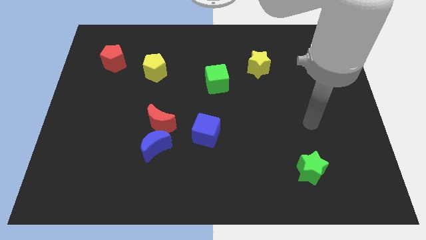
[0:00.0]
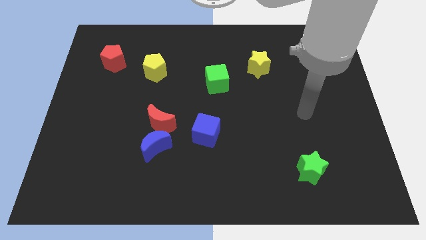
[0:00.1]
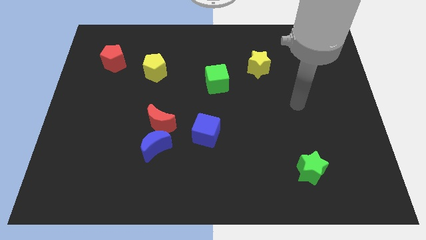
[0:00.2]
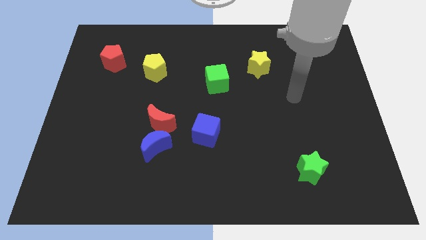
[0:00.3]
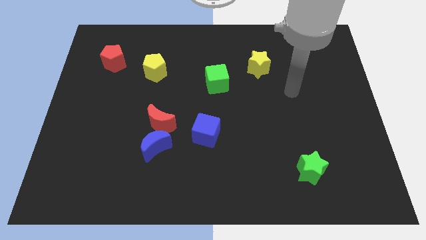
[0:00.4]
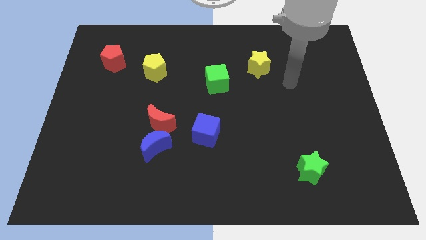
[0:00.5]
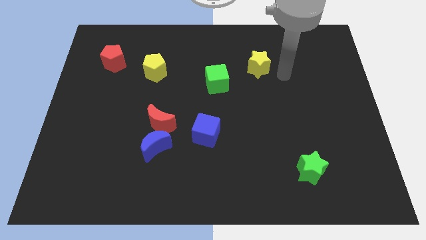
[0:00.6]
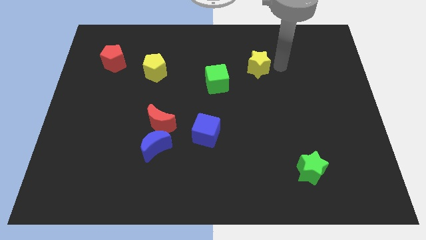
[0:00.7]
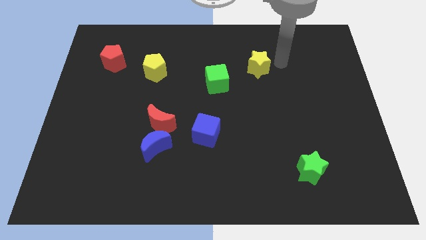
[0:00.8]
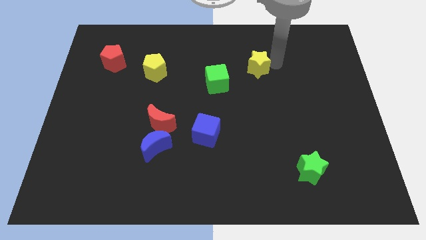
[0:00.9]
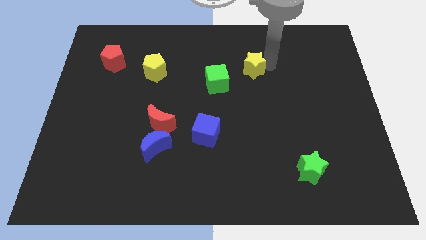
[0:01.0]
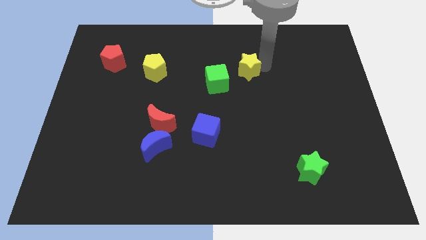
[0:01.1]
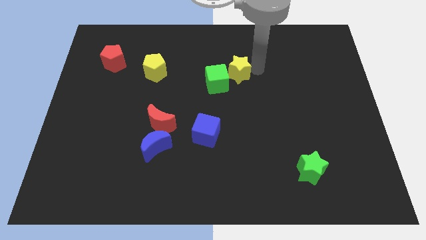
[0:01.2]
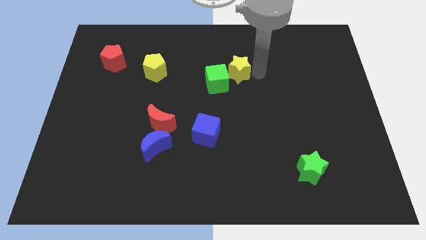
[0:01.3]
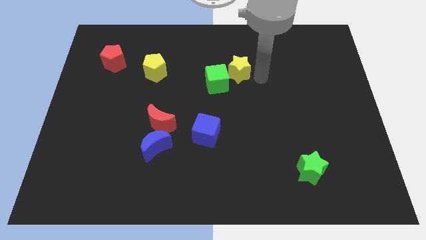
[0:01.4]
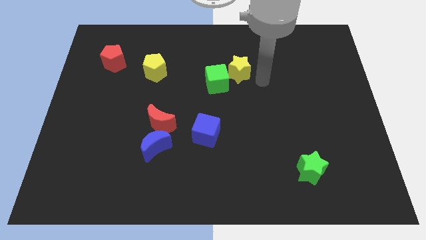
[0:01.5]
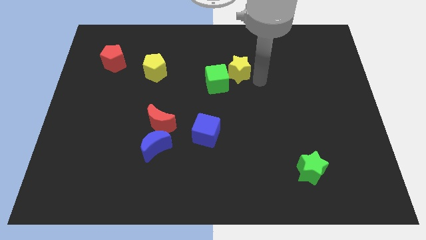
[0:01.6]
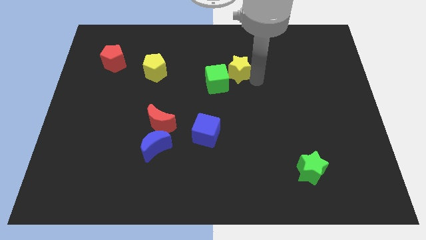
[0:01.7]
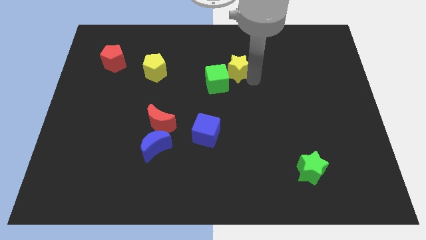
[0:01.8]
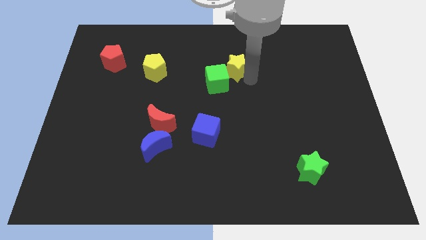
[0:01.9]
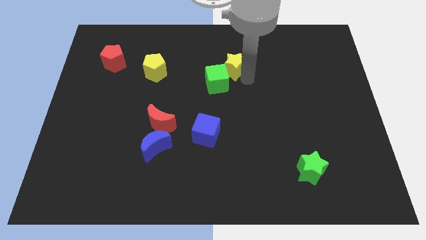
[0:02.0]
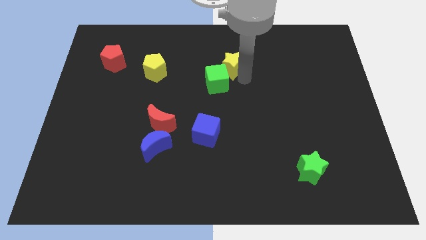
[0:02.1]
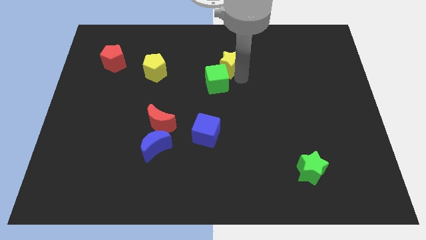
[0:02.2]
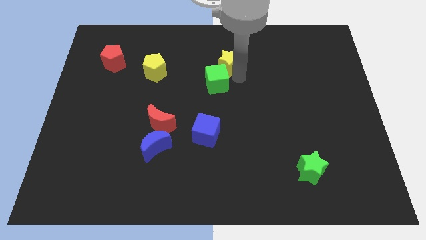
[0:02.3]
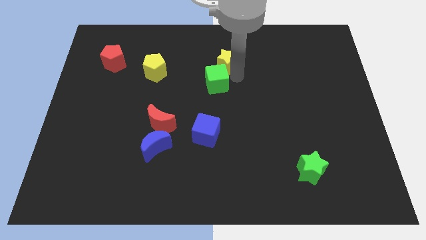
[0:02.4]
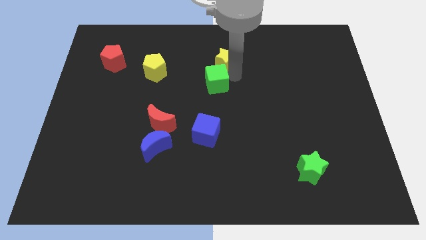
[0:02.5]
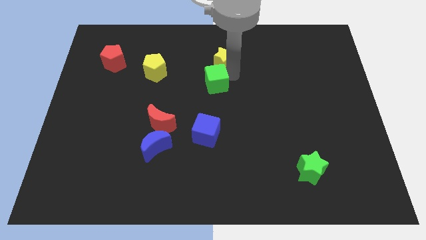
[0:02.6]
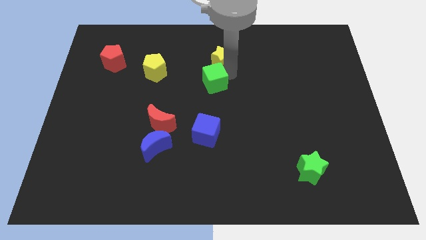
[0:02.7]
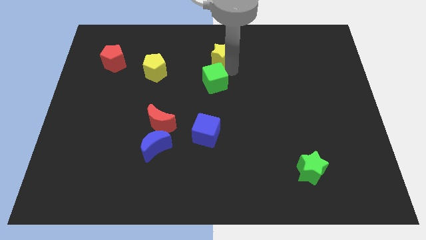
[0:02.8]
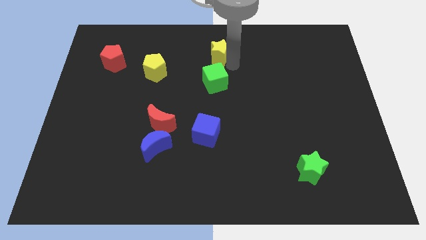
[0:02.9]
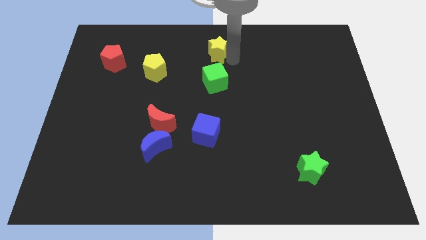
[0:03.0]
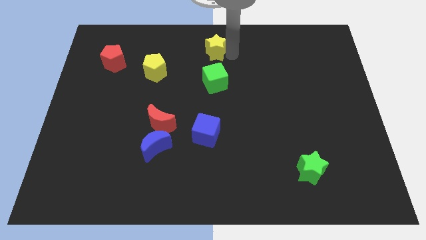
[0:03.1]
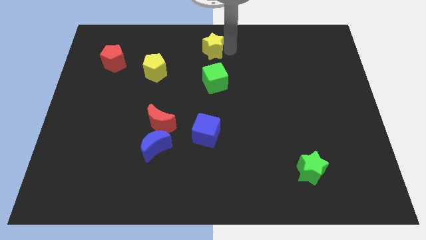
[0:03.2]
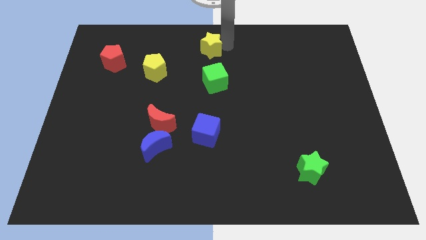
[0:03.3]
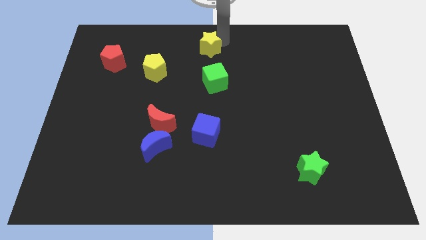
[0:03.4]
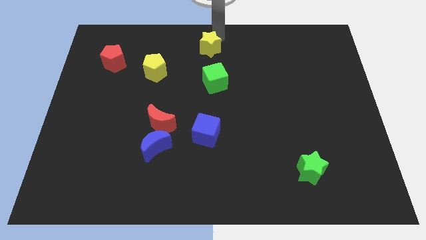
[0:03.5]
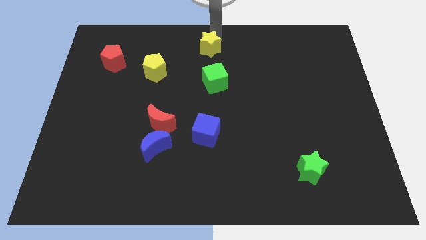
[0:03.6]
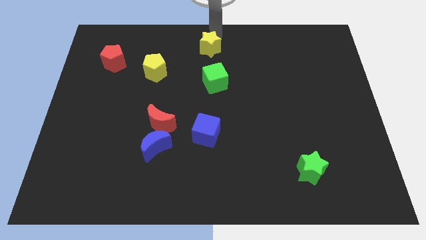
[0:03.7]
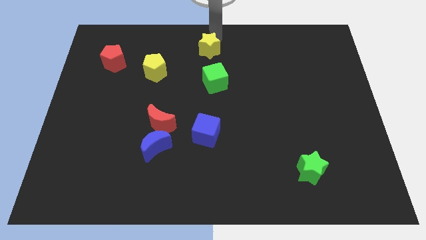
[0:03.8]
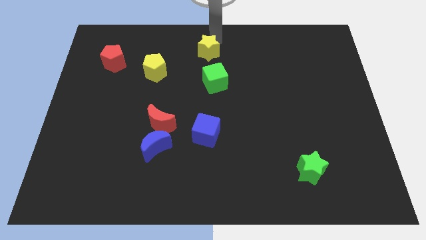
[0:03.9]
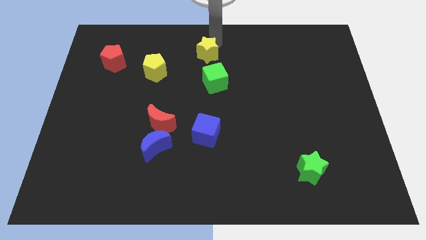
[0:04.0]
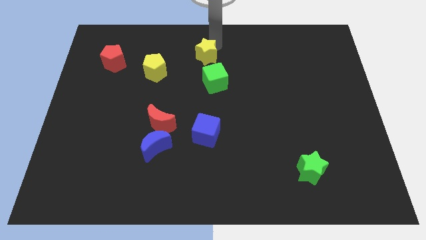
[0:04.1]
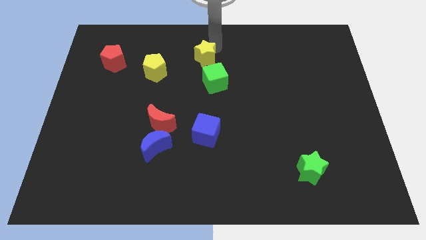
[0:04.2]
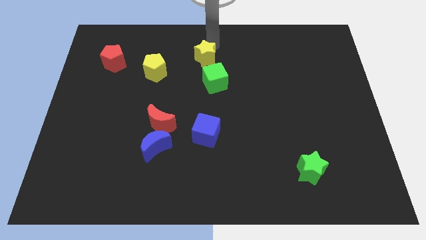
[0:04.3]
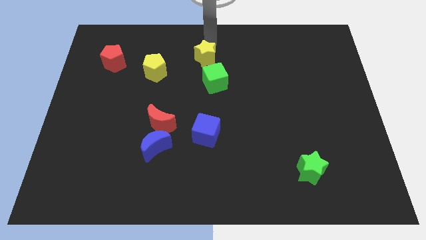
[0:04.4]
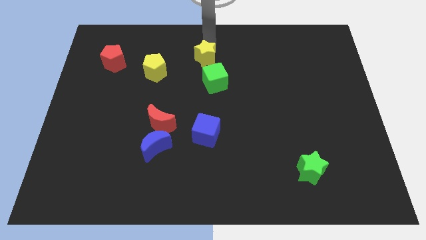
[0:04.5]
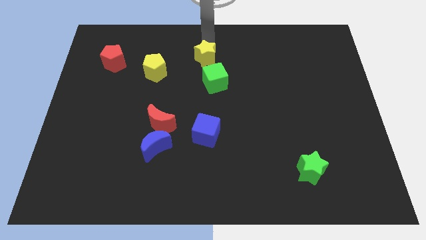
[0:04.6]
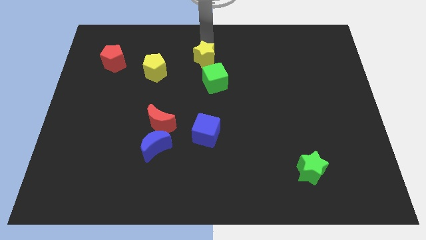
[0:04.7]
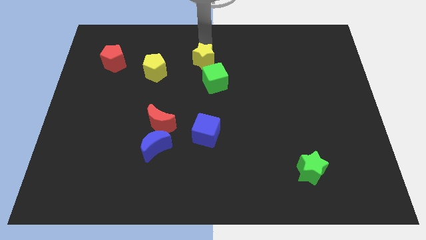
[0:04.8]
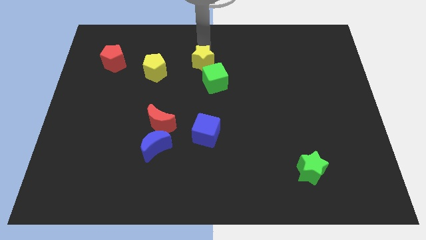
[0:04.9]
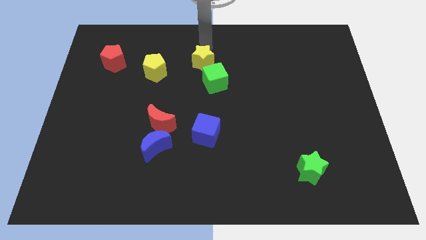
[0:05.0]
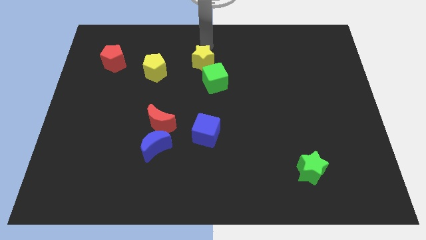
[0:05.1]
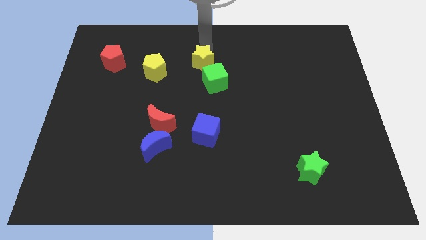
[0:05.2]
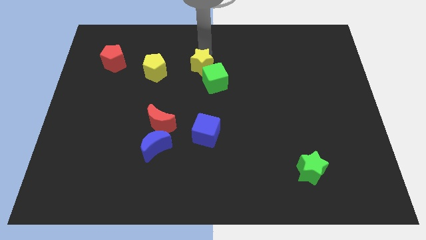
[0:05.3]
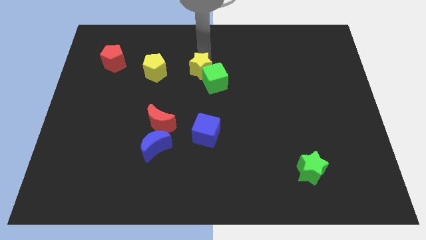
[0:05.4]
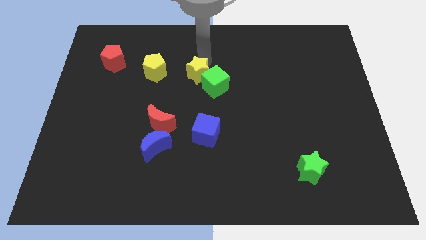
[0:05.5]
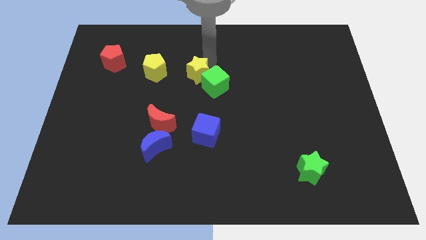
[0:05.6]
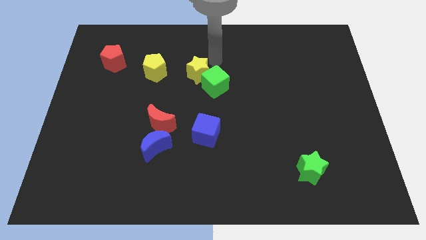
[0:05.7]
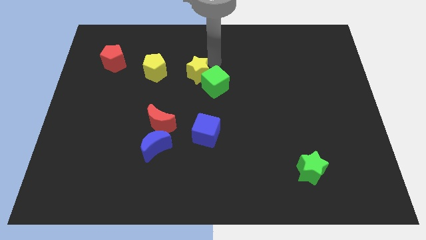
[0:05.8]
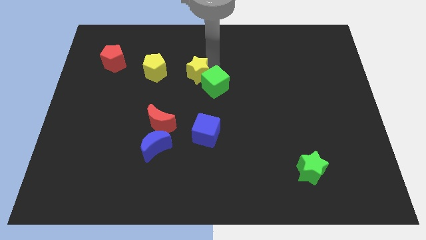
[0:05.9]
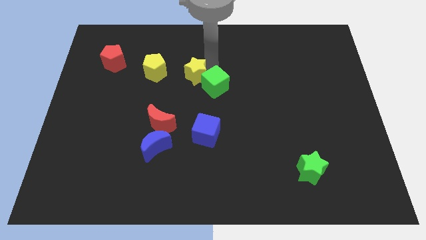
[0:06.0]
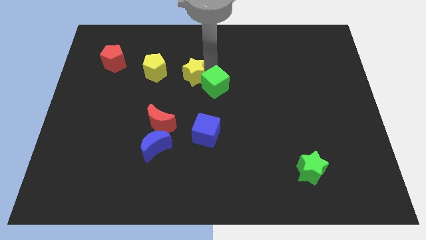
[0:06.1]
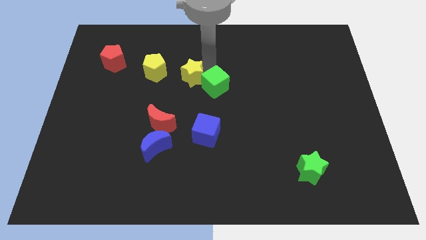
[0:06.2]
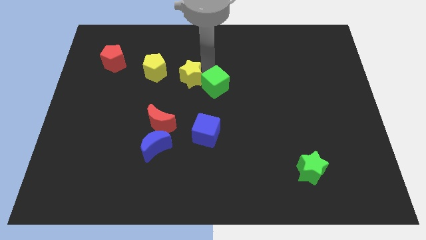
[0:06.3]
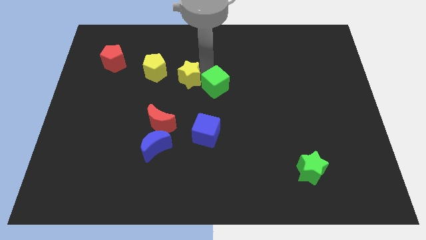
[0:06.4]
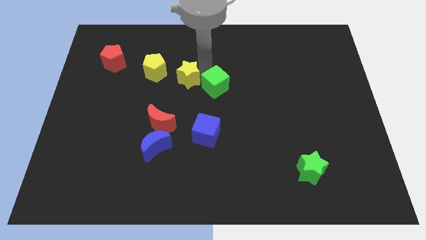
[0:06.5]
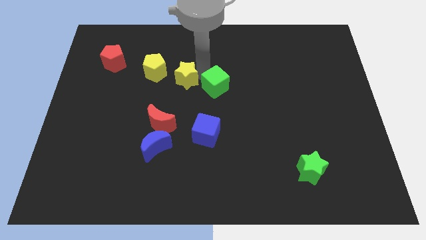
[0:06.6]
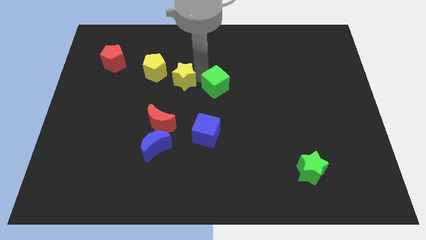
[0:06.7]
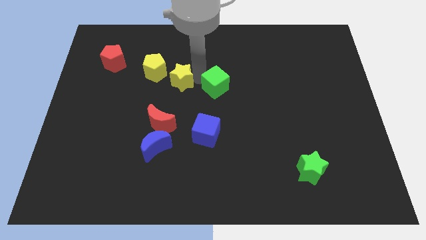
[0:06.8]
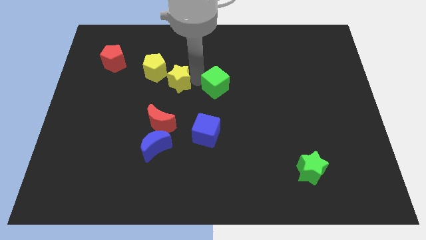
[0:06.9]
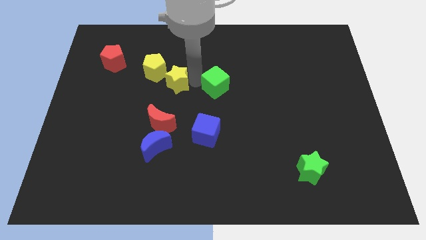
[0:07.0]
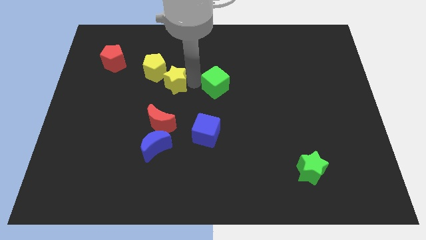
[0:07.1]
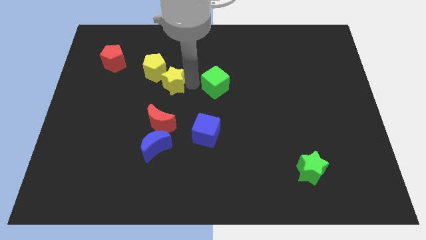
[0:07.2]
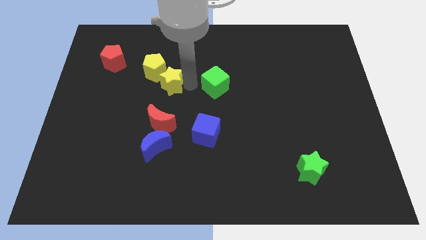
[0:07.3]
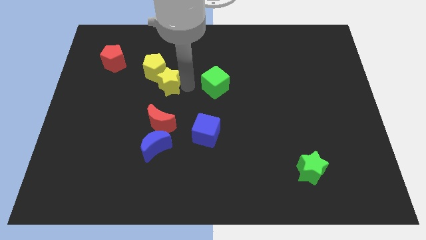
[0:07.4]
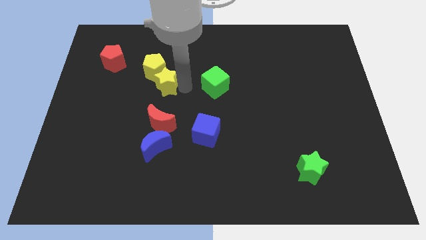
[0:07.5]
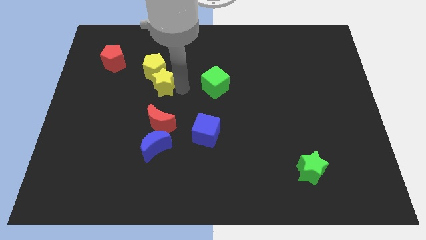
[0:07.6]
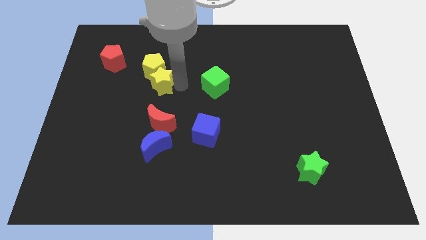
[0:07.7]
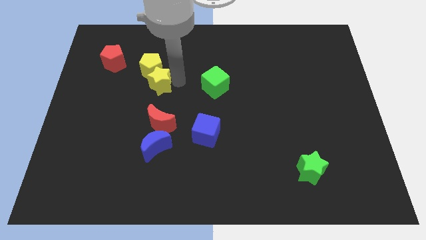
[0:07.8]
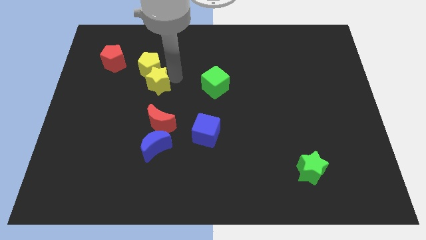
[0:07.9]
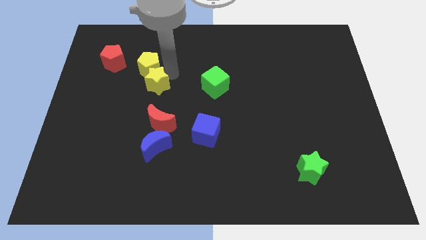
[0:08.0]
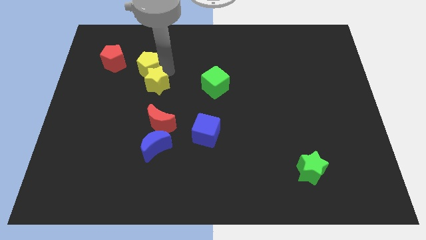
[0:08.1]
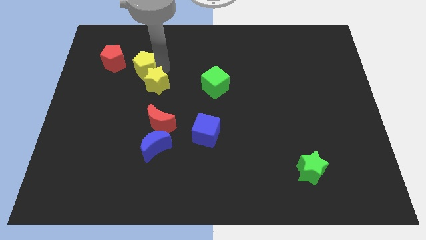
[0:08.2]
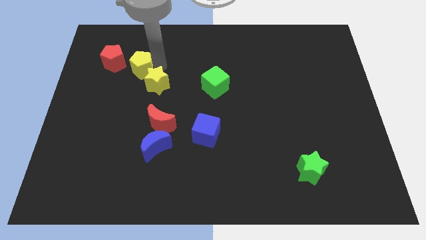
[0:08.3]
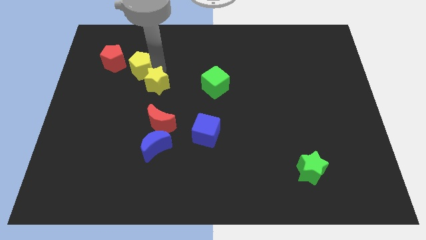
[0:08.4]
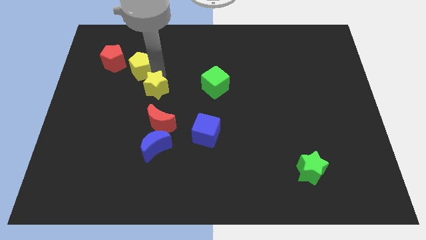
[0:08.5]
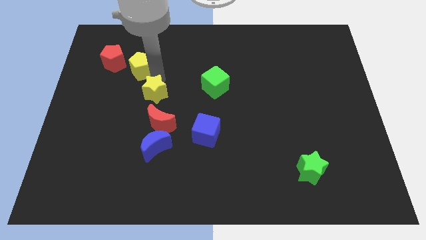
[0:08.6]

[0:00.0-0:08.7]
push the yellow star to the top left of the red moon
